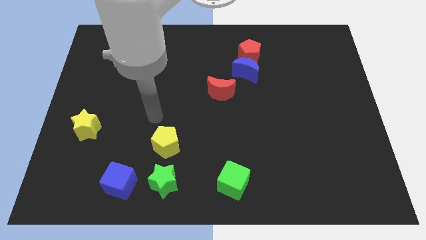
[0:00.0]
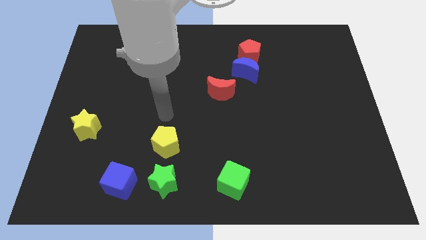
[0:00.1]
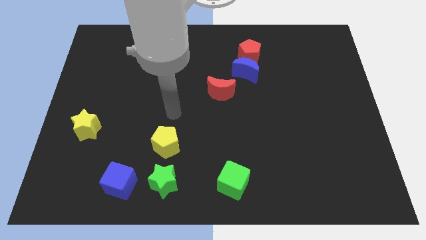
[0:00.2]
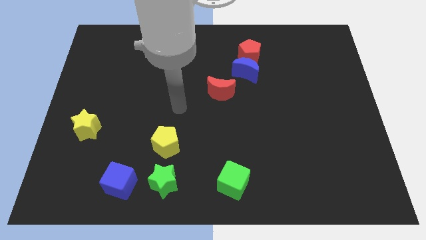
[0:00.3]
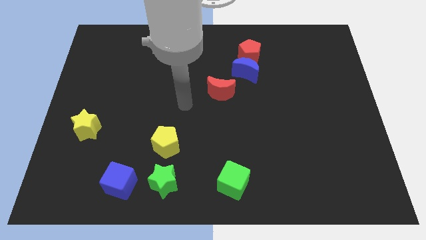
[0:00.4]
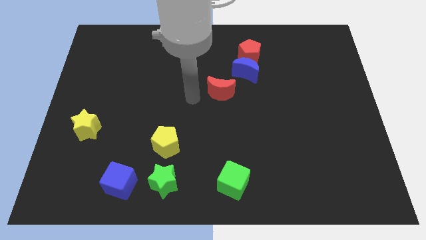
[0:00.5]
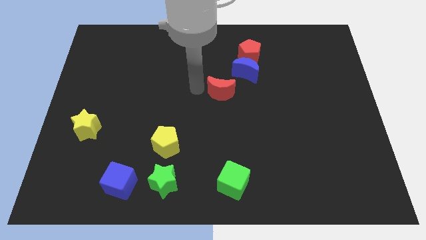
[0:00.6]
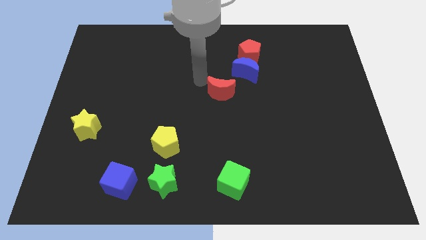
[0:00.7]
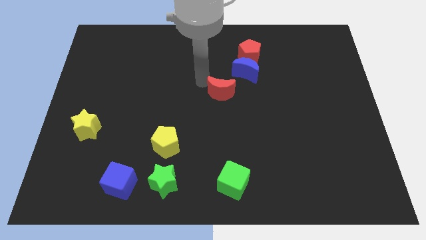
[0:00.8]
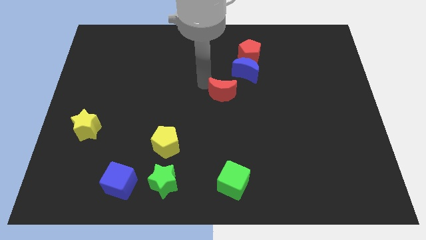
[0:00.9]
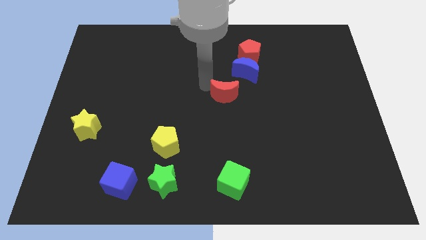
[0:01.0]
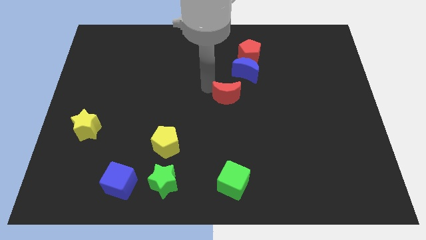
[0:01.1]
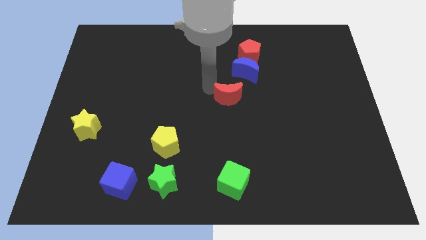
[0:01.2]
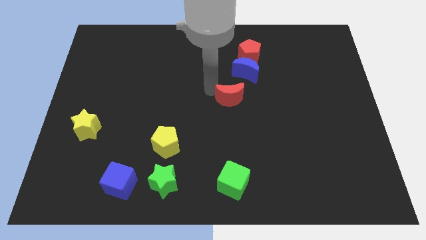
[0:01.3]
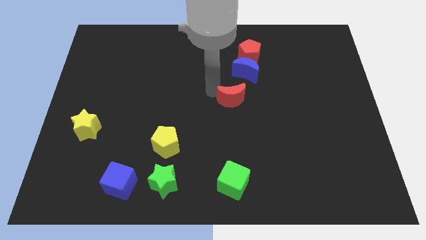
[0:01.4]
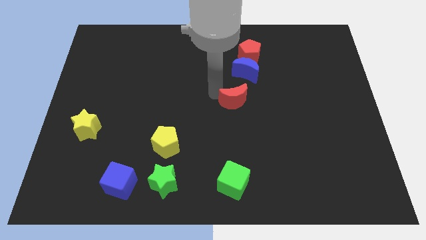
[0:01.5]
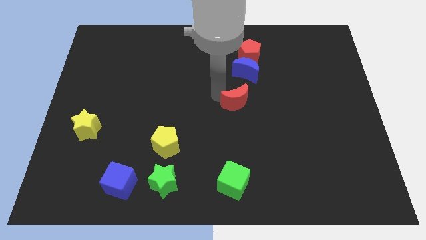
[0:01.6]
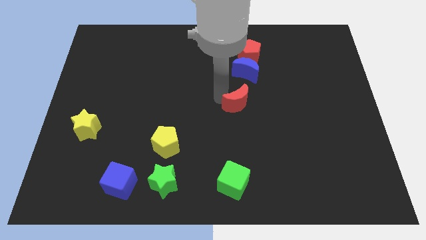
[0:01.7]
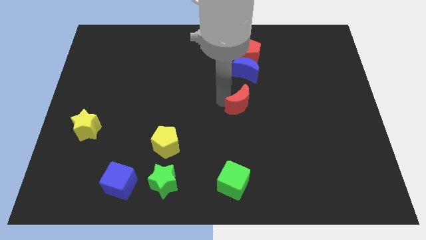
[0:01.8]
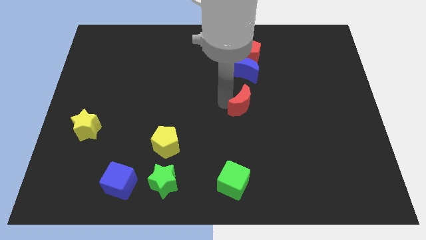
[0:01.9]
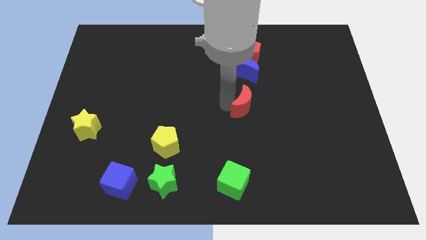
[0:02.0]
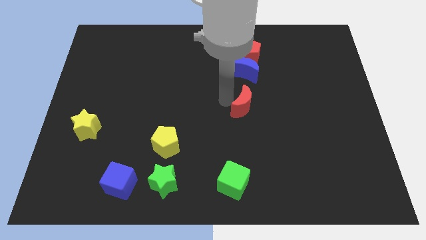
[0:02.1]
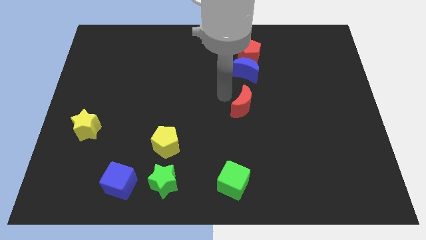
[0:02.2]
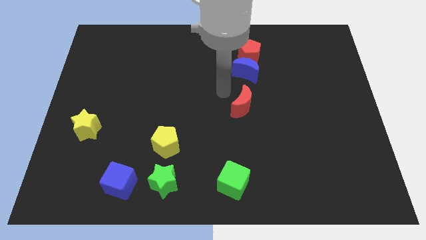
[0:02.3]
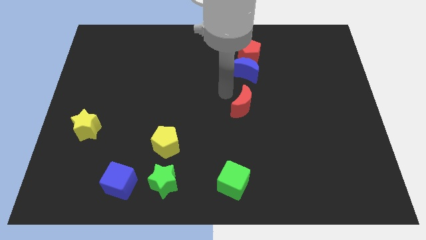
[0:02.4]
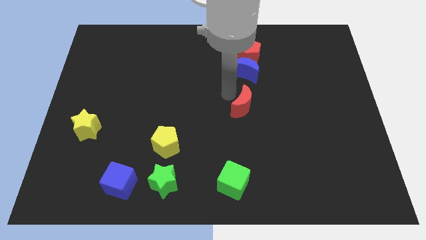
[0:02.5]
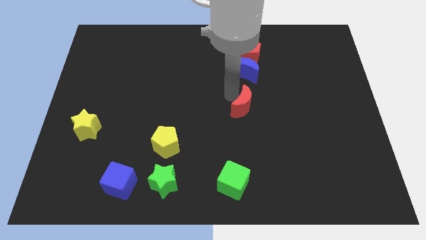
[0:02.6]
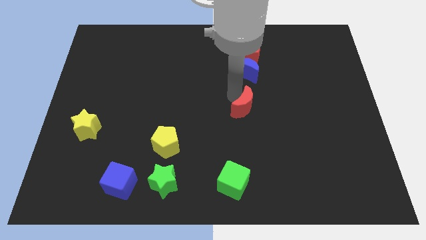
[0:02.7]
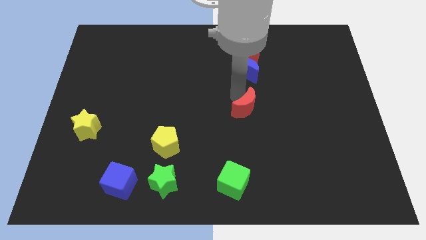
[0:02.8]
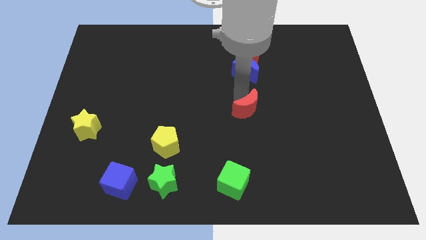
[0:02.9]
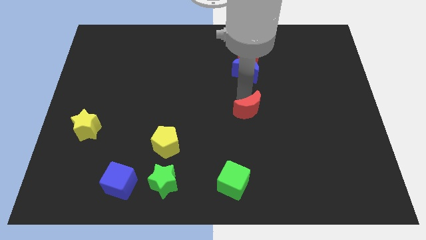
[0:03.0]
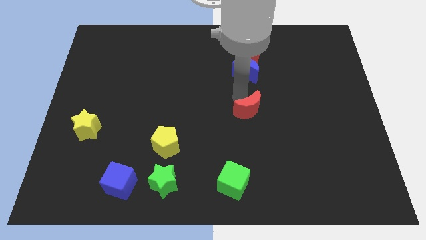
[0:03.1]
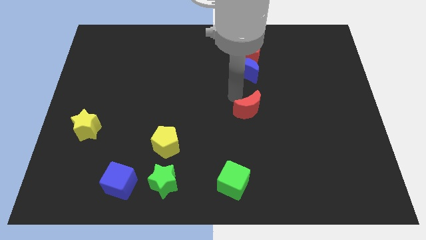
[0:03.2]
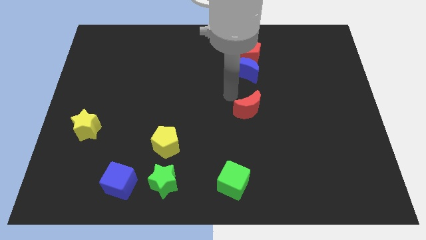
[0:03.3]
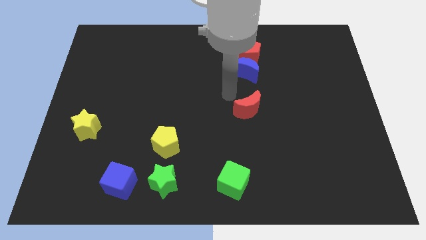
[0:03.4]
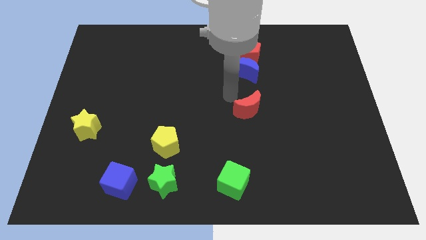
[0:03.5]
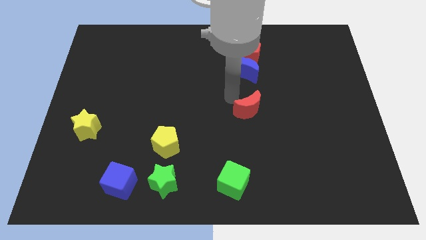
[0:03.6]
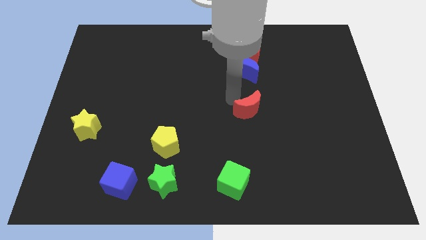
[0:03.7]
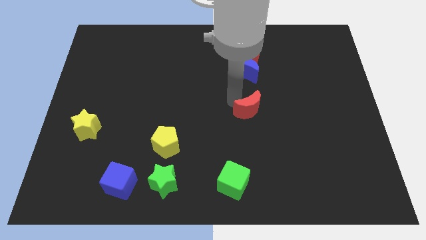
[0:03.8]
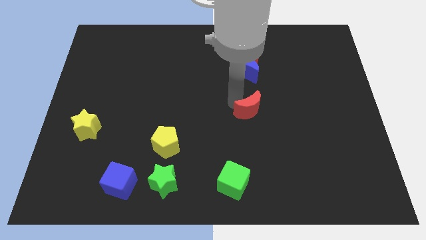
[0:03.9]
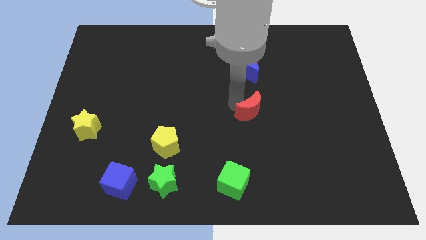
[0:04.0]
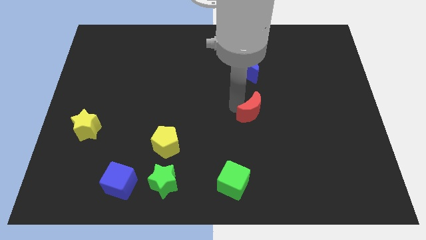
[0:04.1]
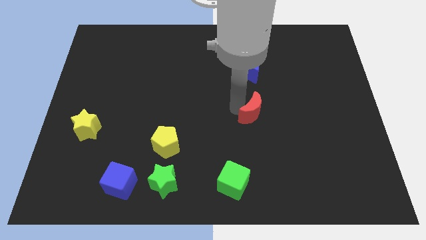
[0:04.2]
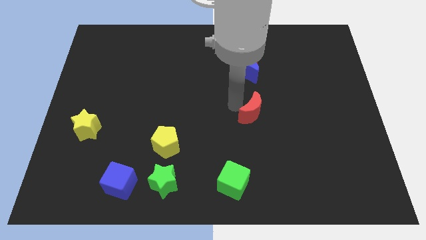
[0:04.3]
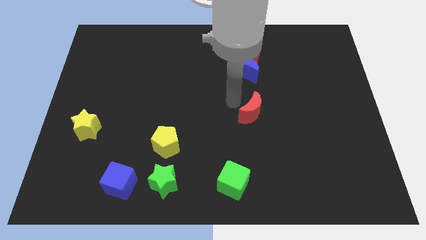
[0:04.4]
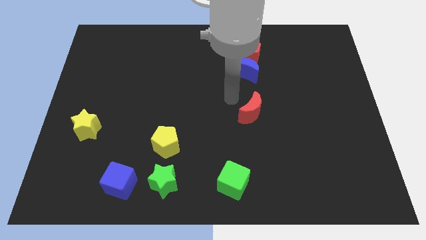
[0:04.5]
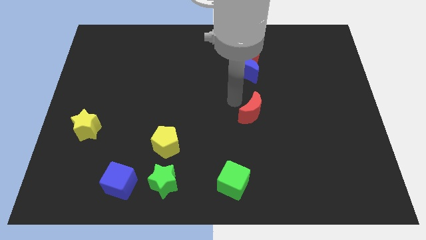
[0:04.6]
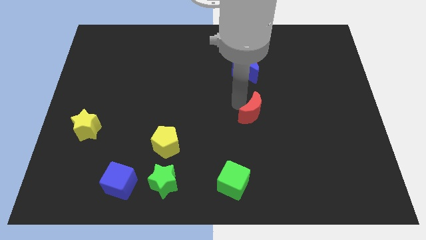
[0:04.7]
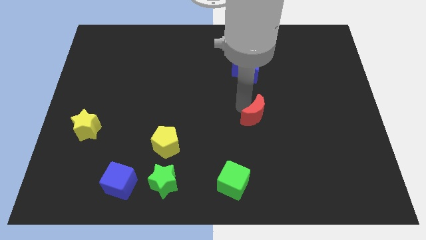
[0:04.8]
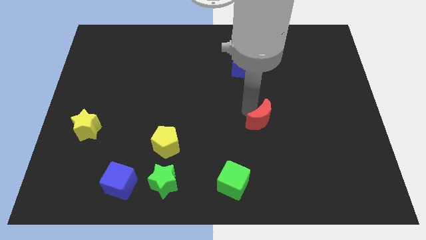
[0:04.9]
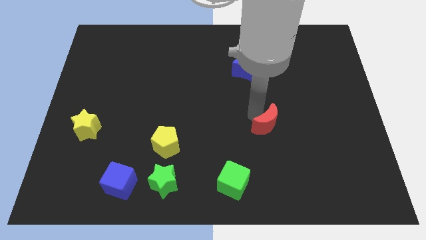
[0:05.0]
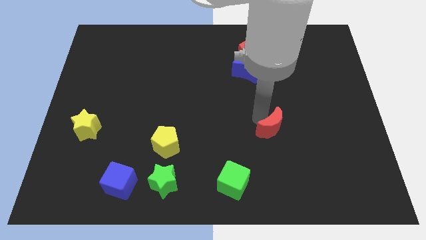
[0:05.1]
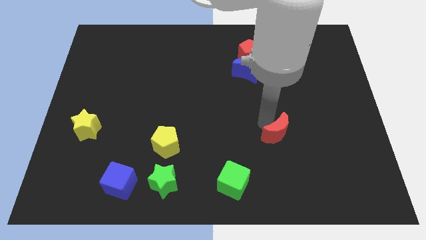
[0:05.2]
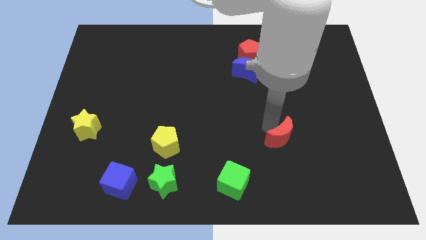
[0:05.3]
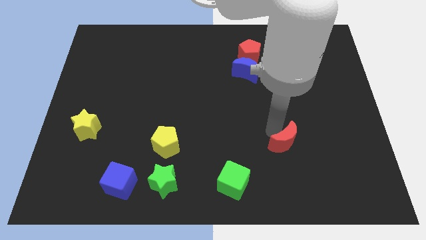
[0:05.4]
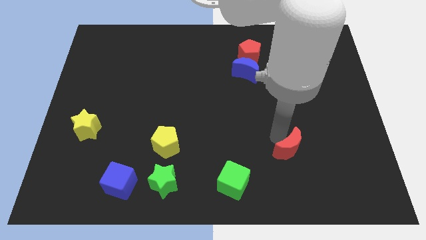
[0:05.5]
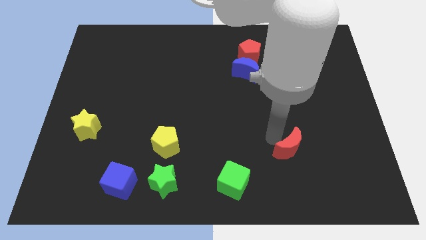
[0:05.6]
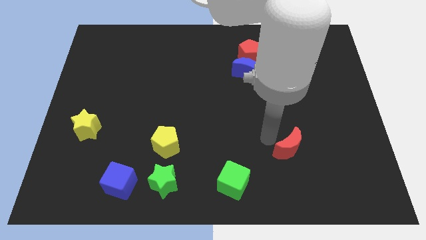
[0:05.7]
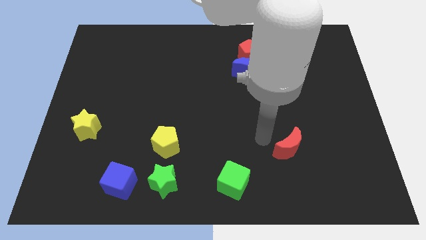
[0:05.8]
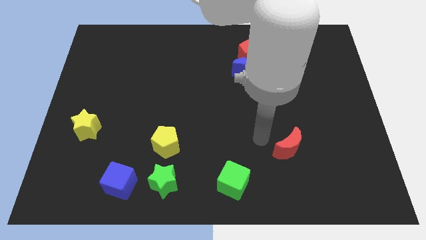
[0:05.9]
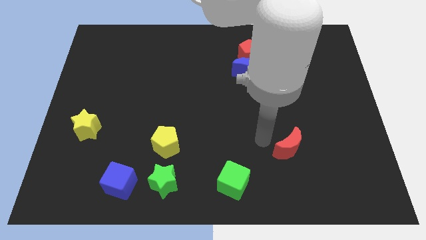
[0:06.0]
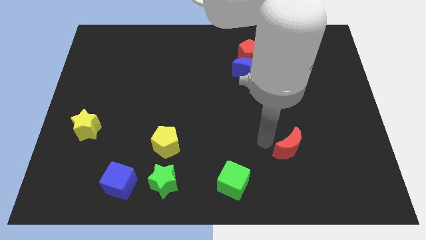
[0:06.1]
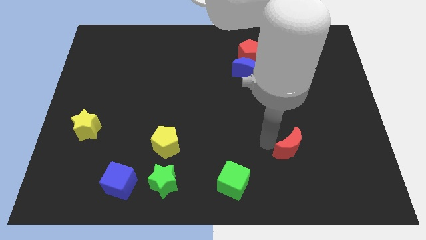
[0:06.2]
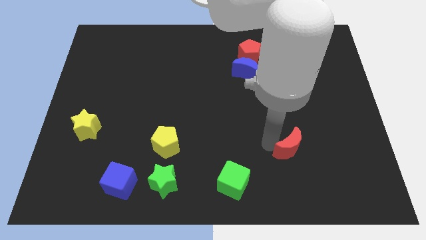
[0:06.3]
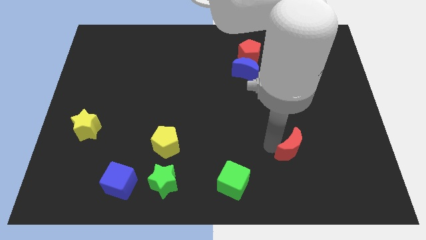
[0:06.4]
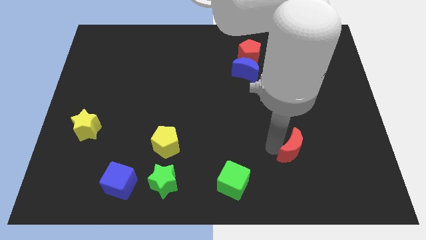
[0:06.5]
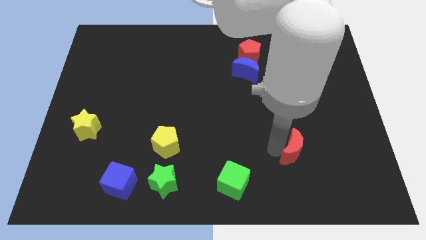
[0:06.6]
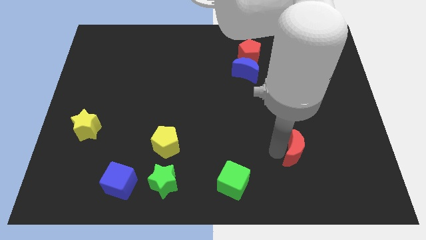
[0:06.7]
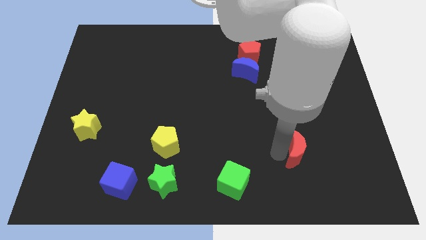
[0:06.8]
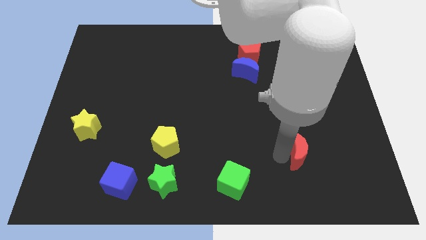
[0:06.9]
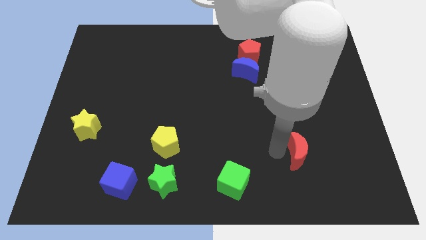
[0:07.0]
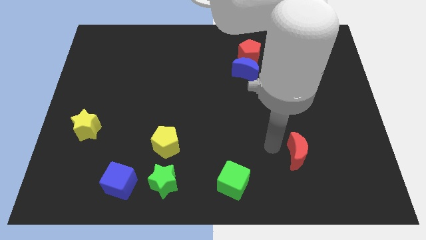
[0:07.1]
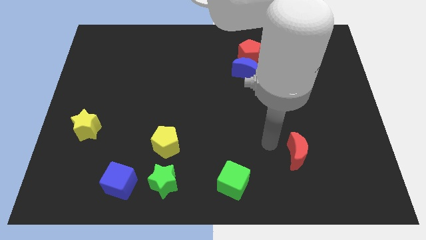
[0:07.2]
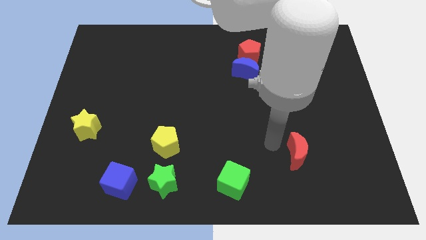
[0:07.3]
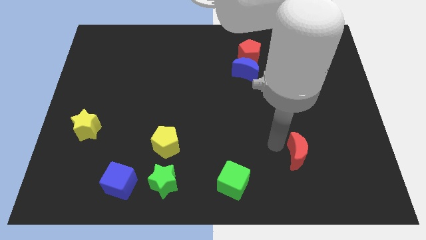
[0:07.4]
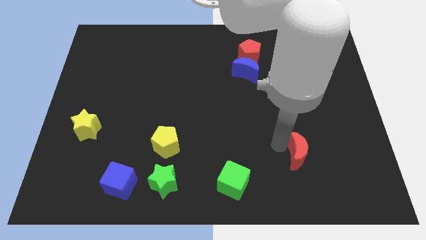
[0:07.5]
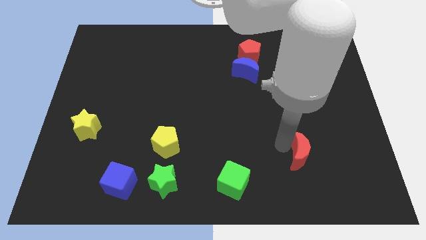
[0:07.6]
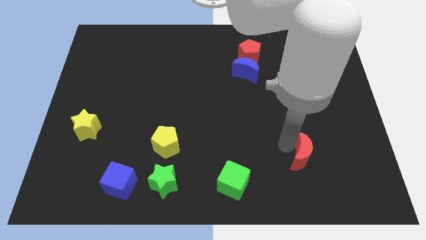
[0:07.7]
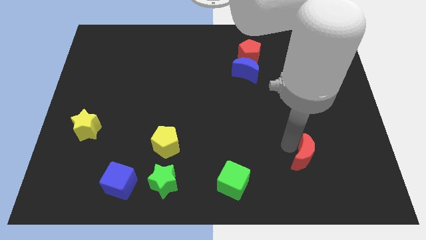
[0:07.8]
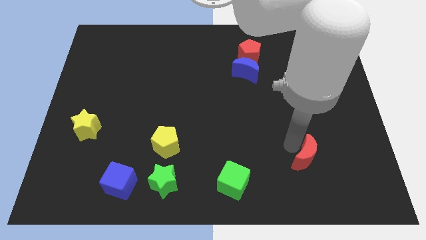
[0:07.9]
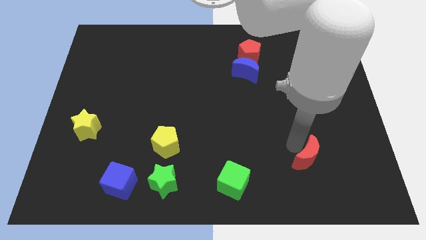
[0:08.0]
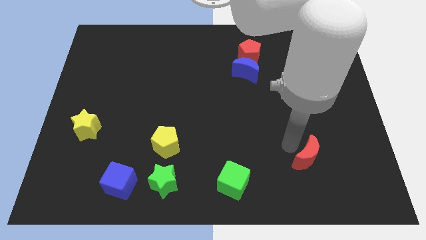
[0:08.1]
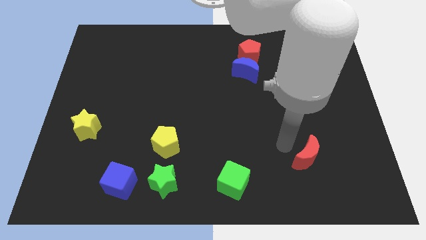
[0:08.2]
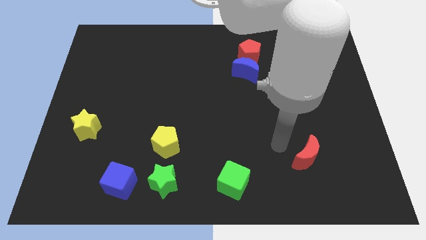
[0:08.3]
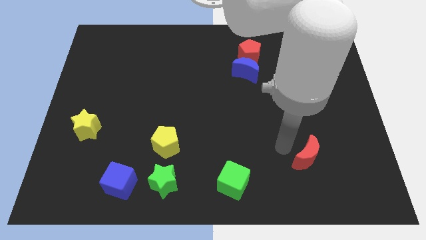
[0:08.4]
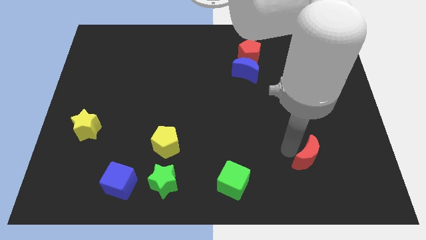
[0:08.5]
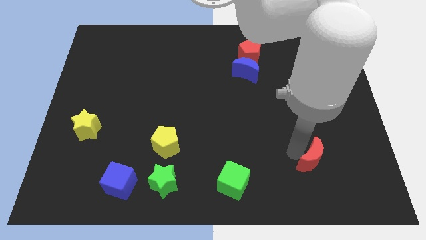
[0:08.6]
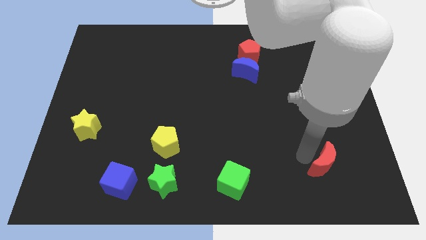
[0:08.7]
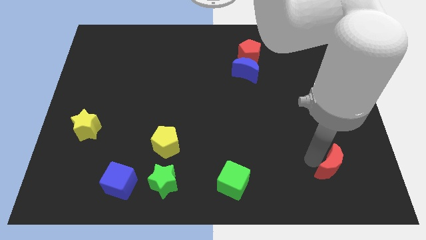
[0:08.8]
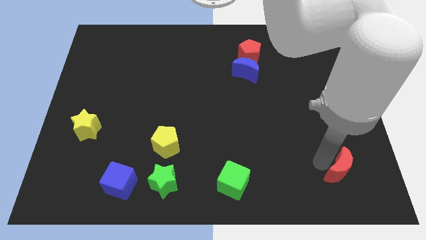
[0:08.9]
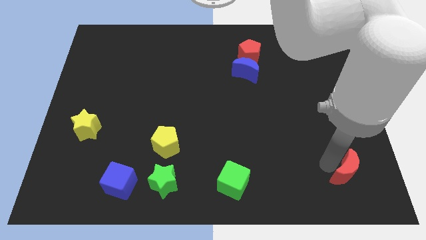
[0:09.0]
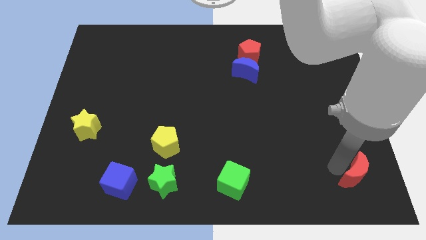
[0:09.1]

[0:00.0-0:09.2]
slide the red moon to the bottom right of the board
